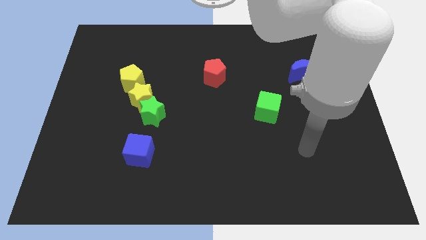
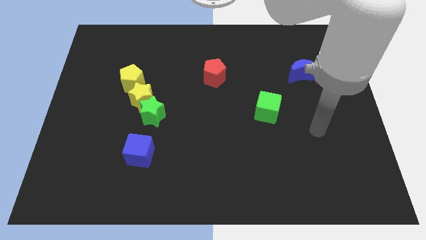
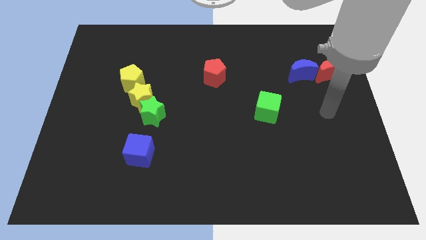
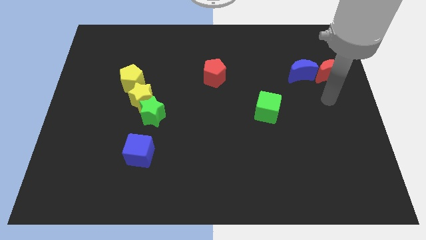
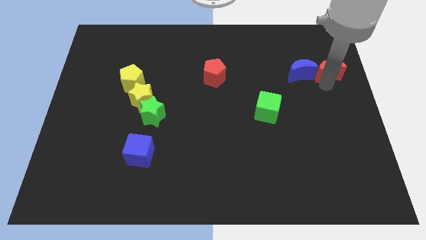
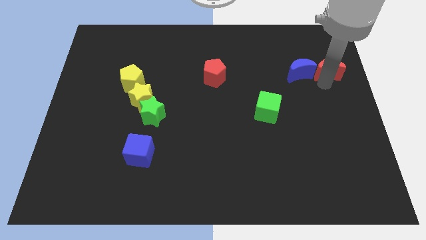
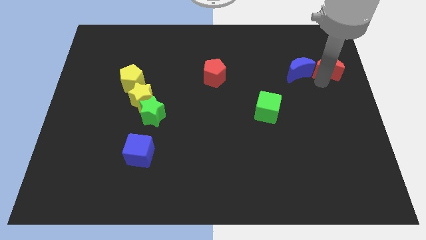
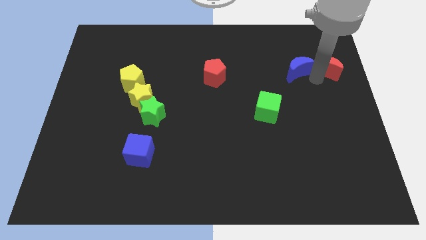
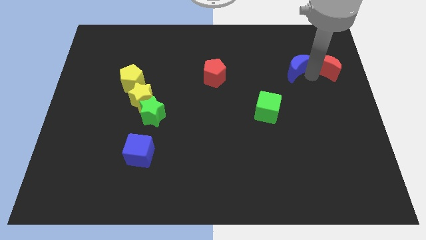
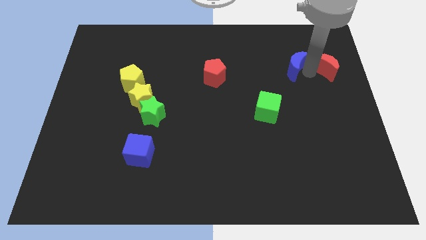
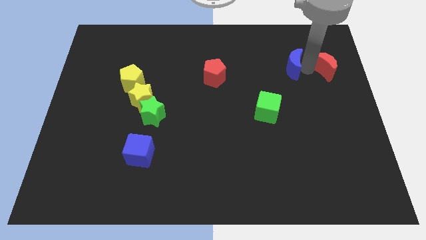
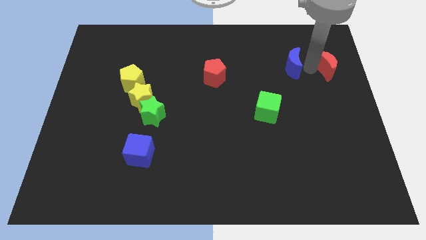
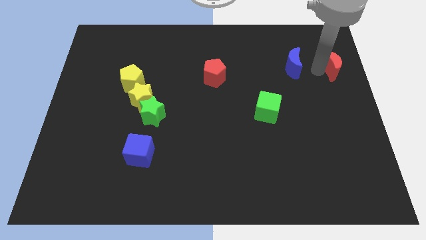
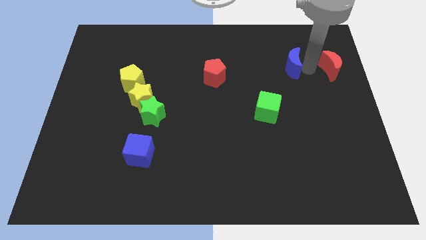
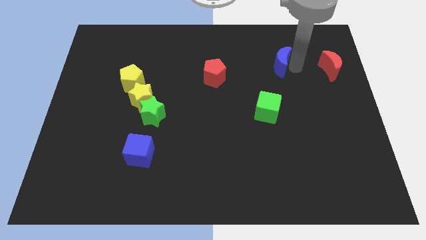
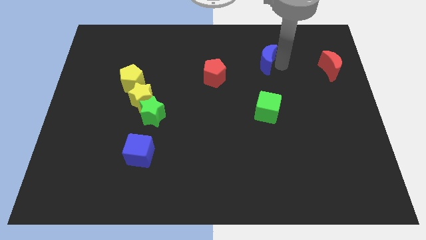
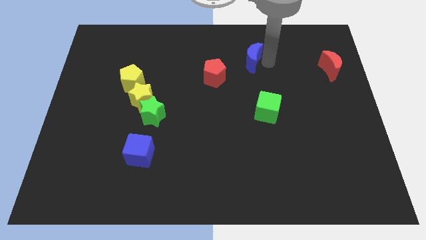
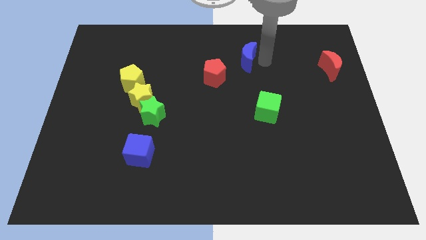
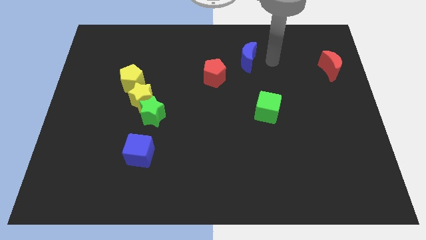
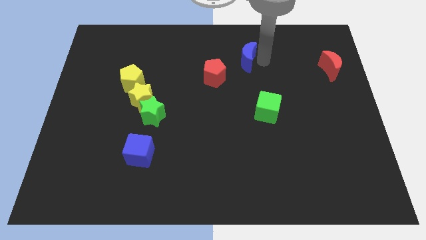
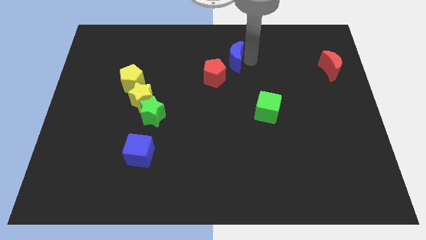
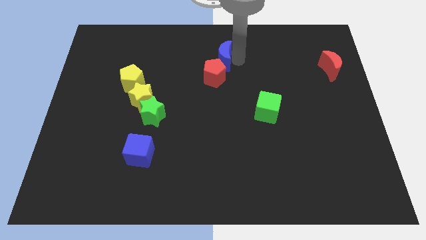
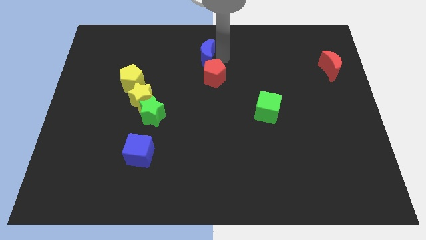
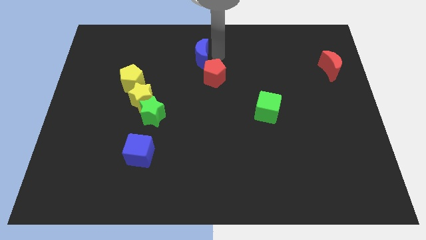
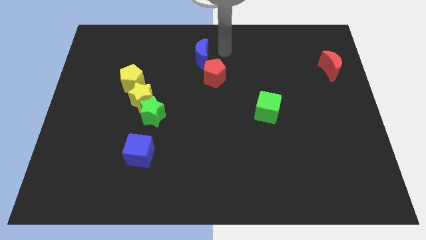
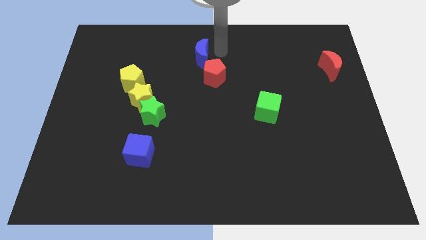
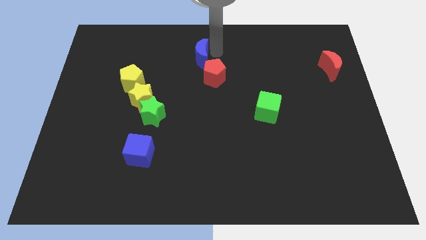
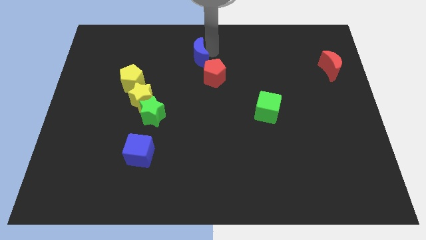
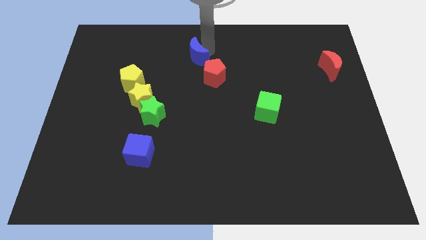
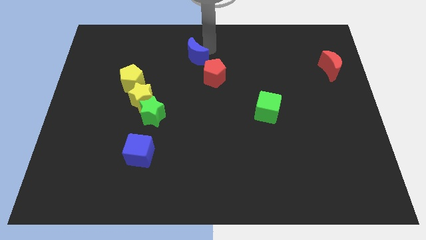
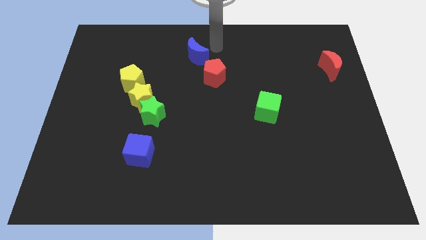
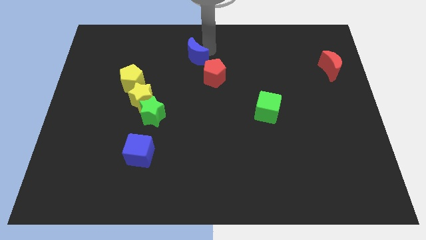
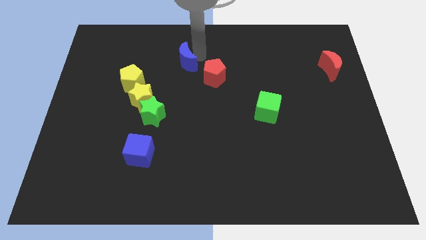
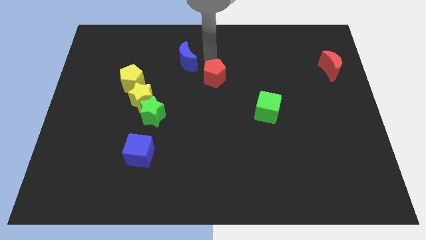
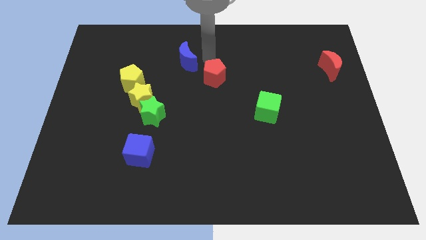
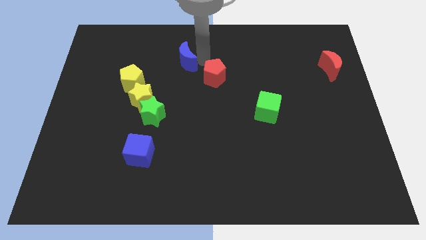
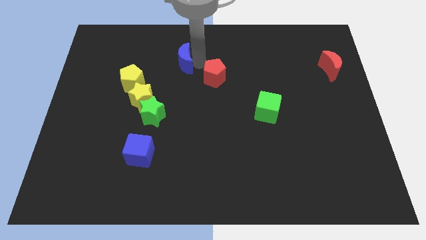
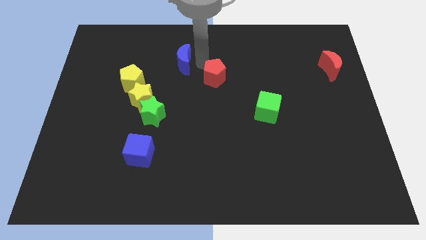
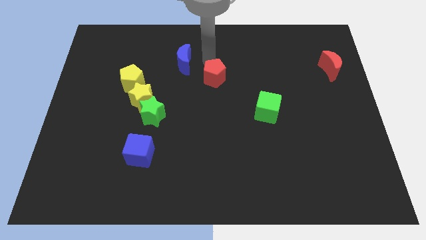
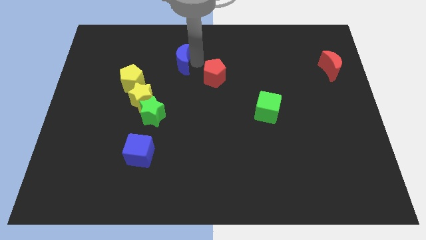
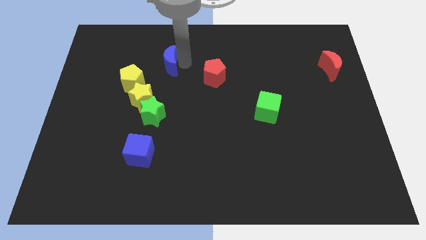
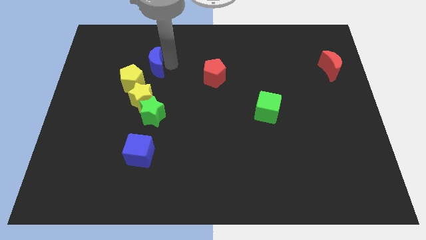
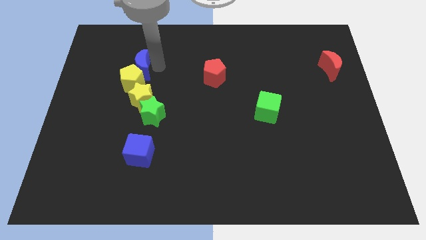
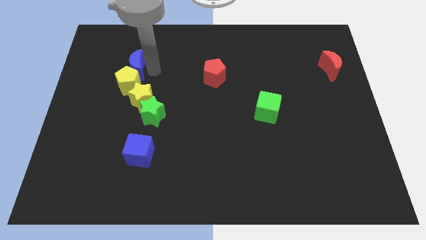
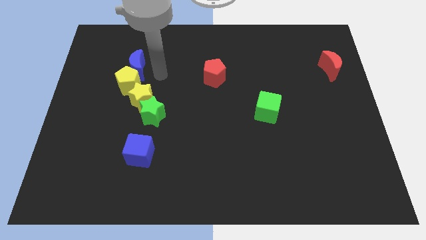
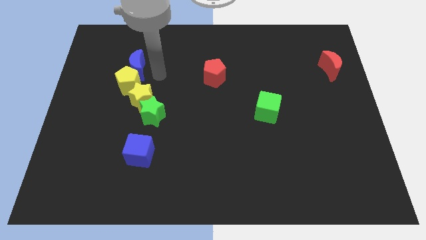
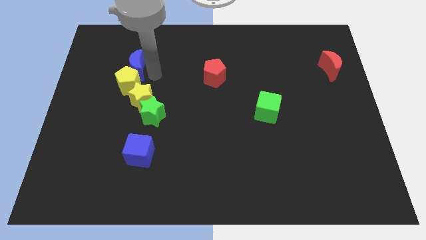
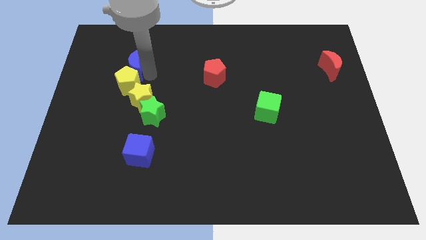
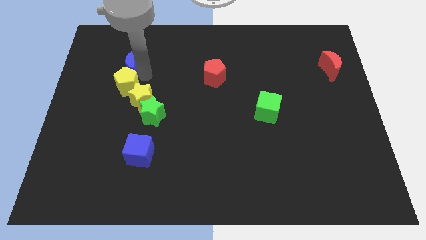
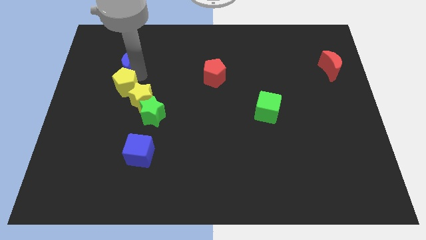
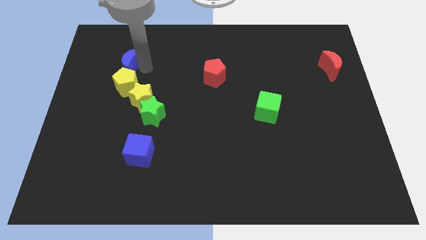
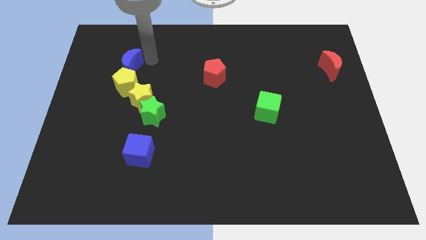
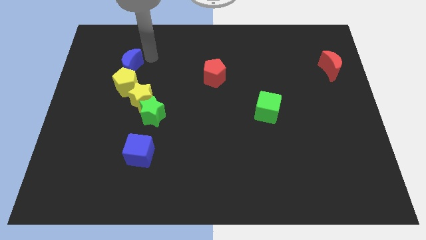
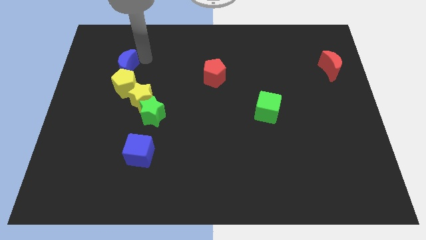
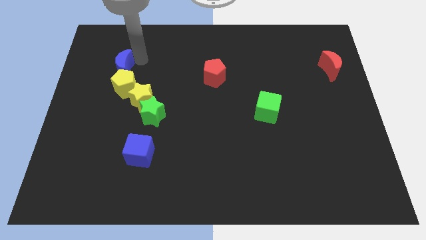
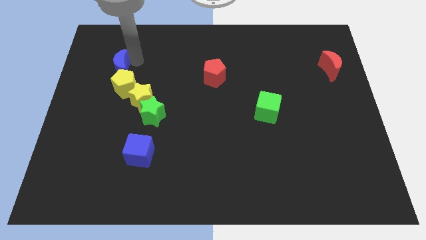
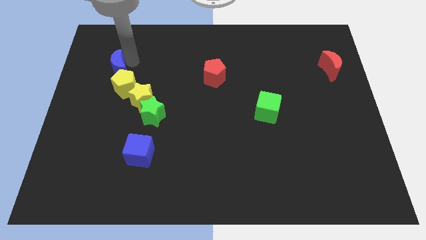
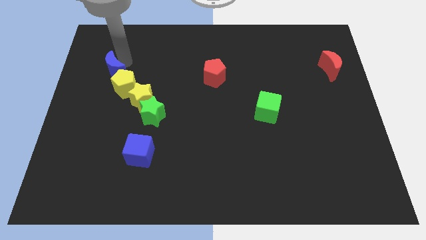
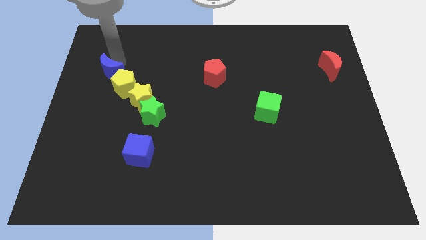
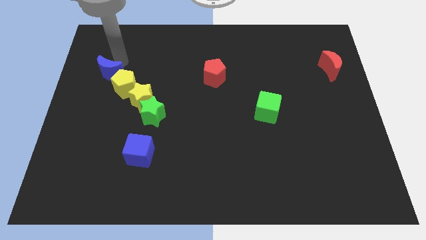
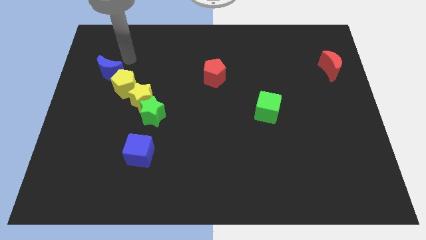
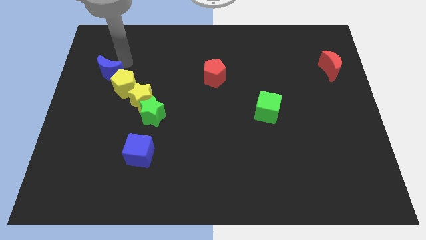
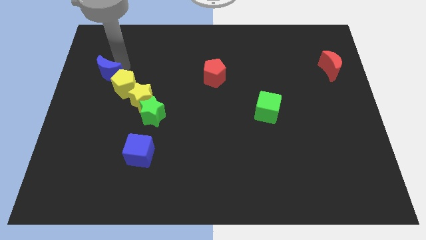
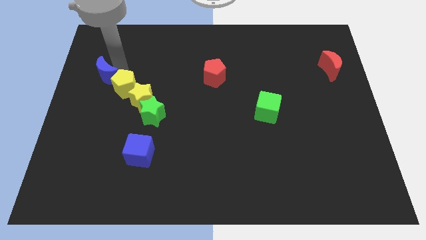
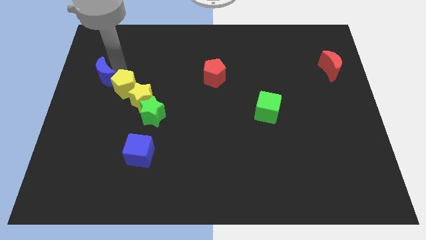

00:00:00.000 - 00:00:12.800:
slide the blue moon to the left side of the board
